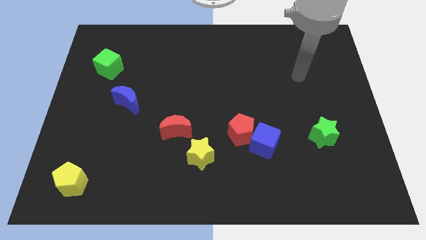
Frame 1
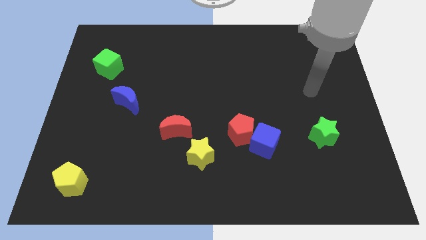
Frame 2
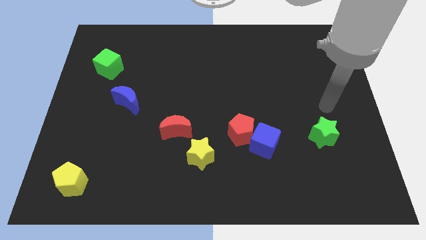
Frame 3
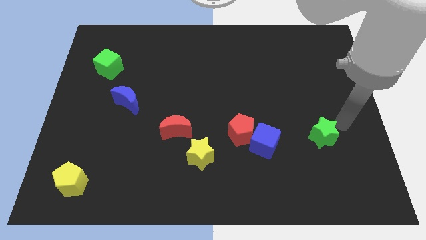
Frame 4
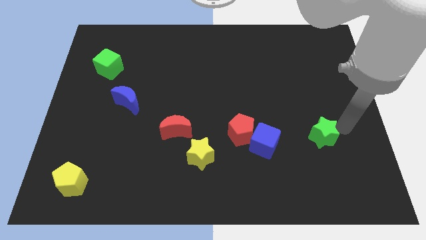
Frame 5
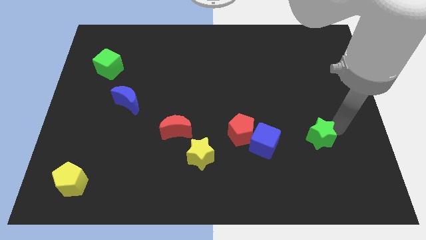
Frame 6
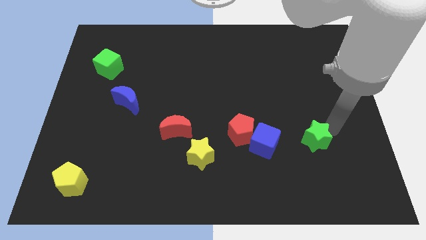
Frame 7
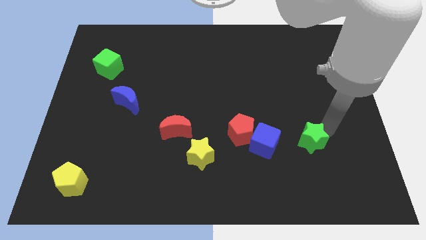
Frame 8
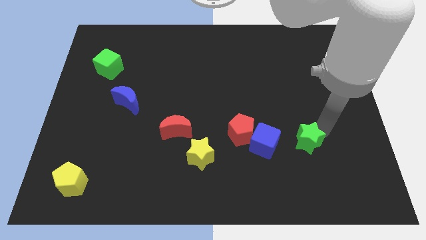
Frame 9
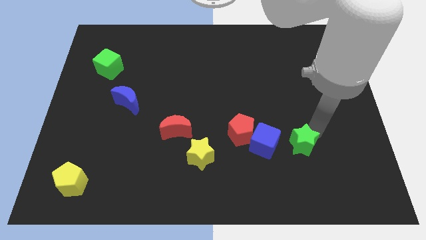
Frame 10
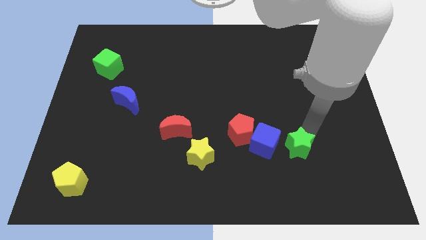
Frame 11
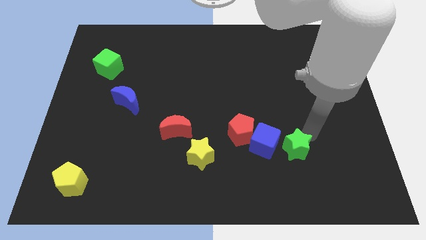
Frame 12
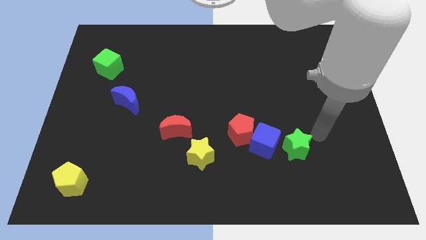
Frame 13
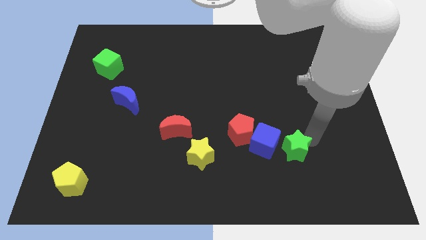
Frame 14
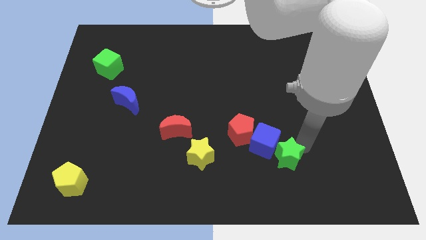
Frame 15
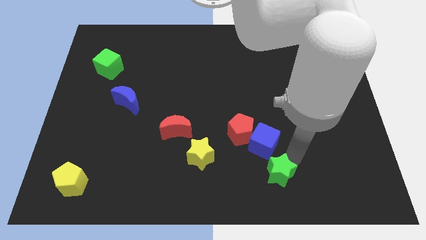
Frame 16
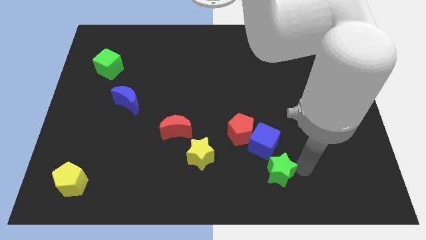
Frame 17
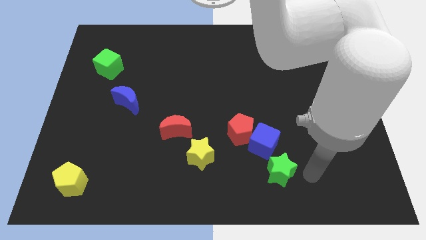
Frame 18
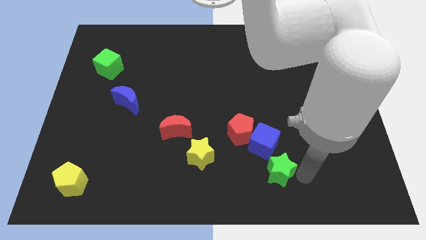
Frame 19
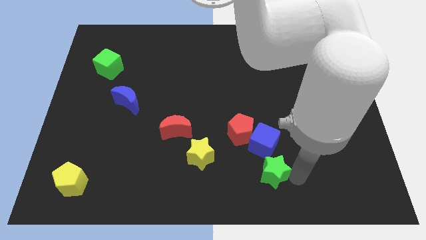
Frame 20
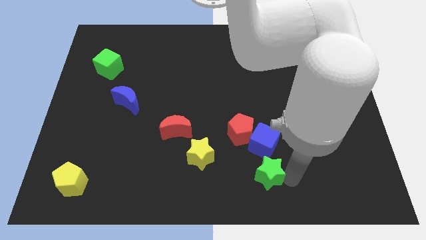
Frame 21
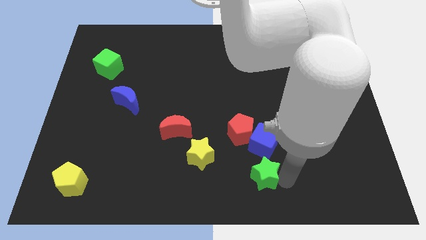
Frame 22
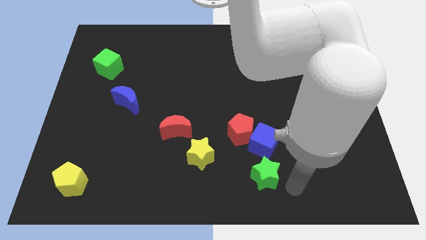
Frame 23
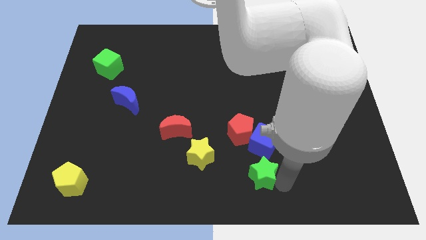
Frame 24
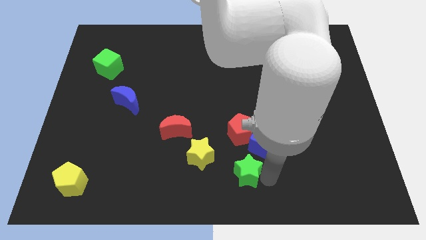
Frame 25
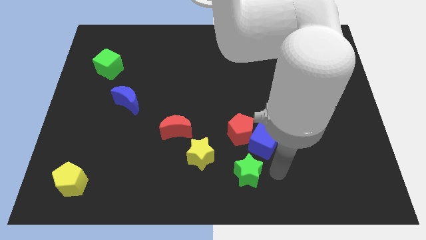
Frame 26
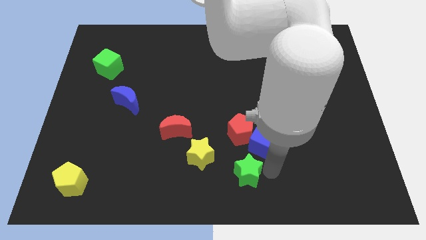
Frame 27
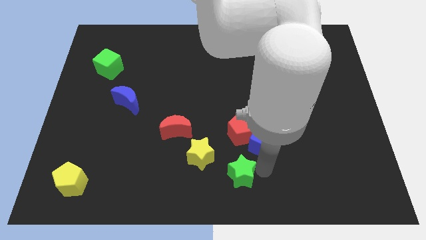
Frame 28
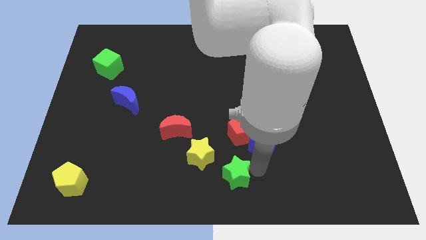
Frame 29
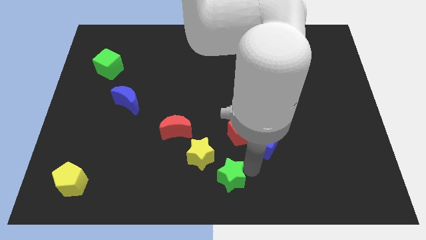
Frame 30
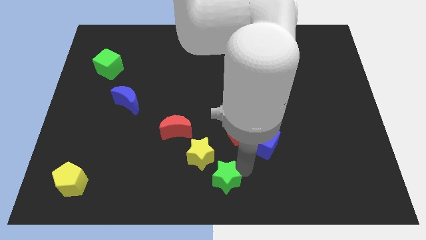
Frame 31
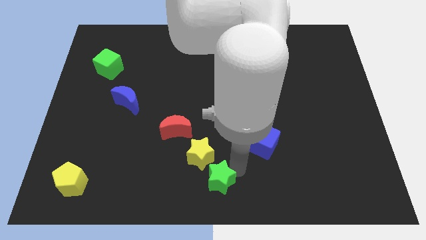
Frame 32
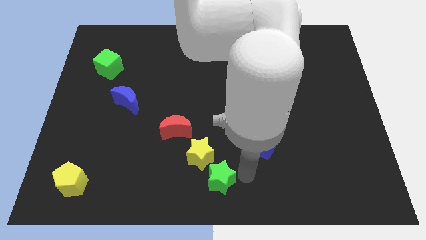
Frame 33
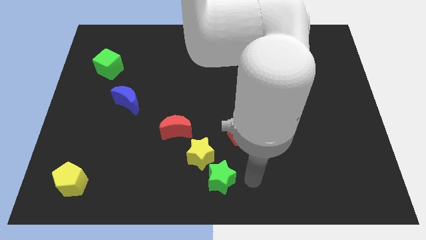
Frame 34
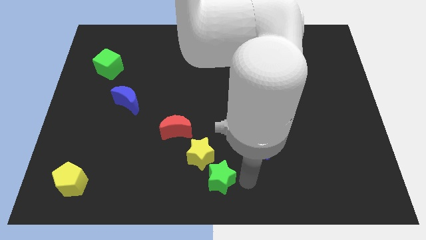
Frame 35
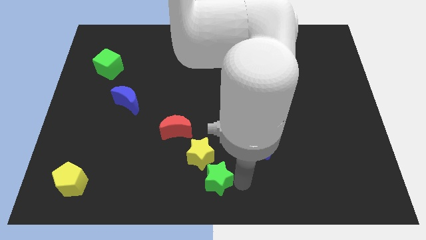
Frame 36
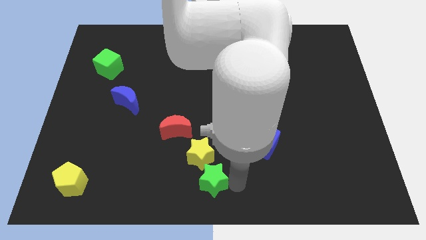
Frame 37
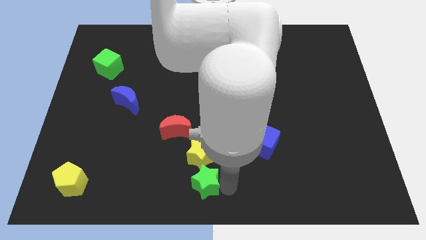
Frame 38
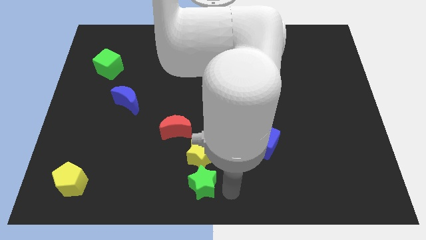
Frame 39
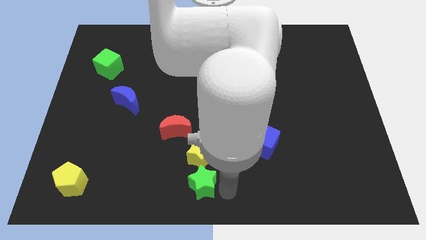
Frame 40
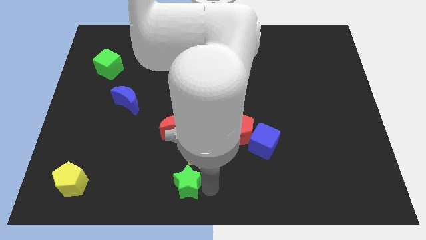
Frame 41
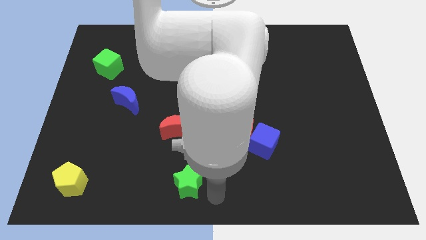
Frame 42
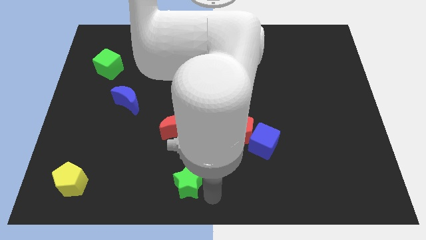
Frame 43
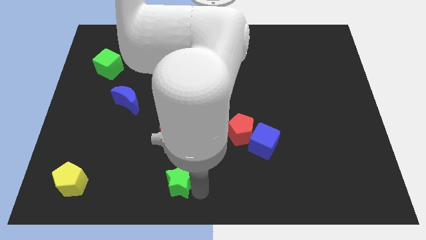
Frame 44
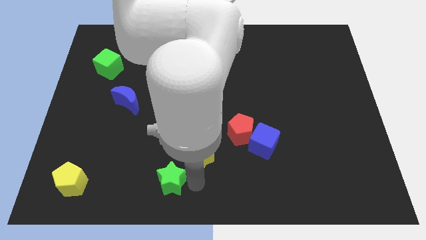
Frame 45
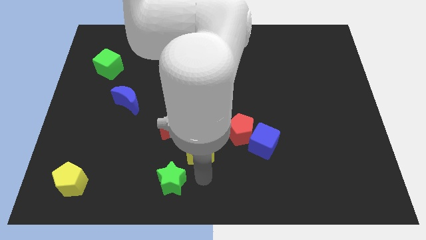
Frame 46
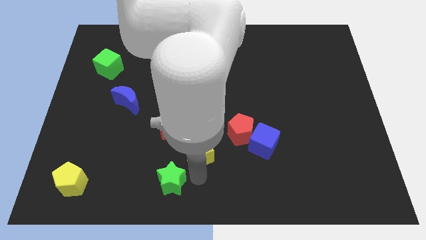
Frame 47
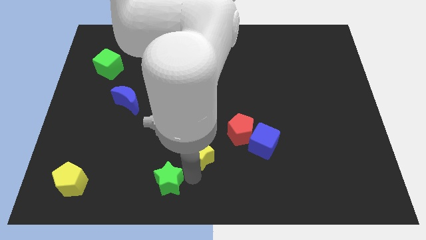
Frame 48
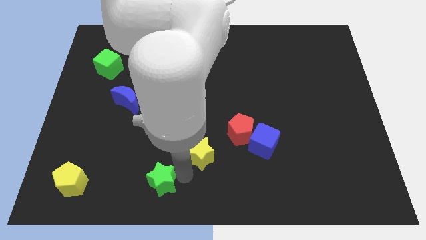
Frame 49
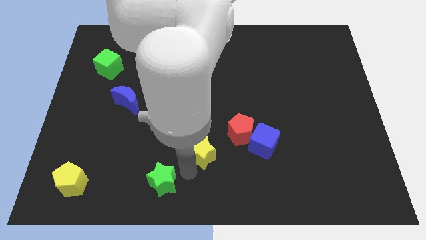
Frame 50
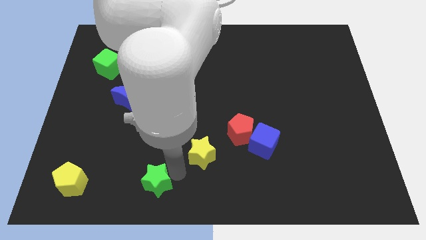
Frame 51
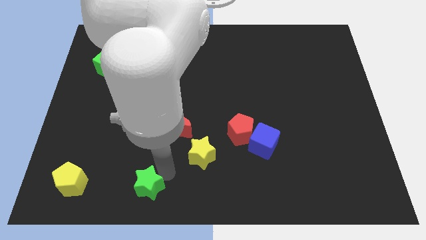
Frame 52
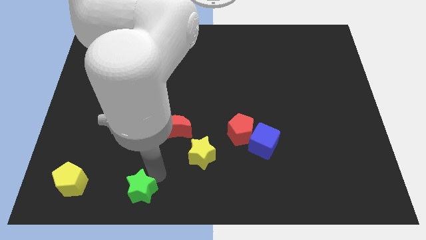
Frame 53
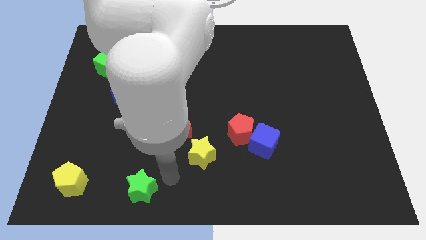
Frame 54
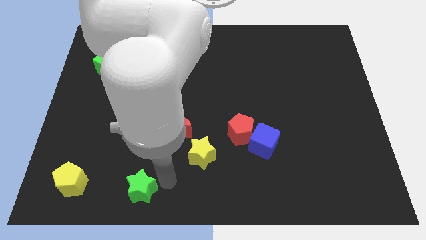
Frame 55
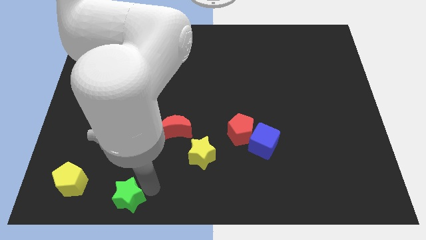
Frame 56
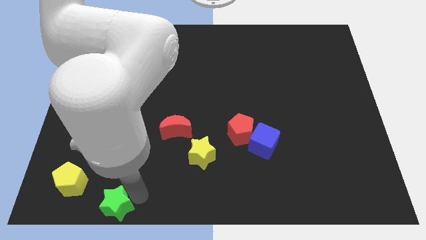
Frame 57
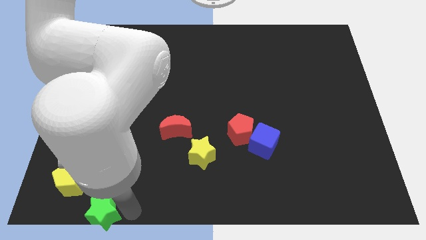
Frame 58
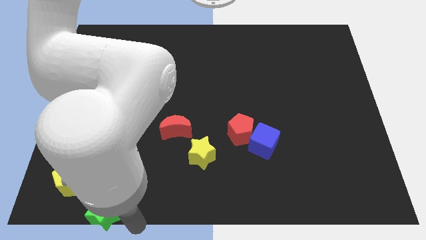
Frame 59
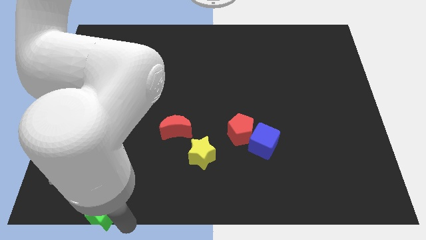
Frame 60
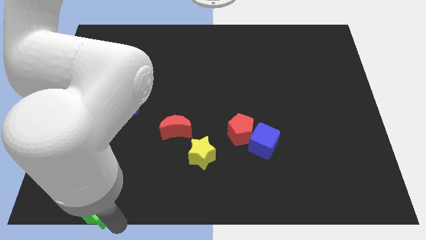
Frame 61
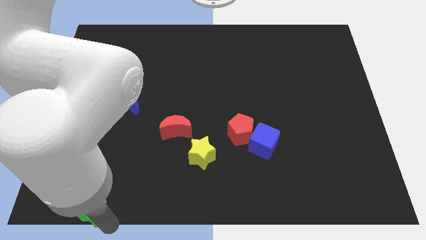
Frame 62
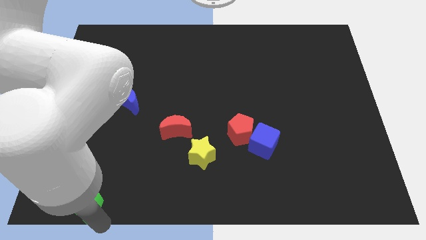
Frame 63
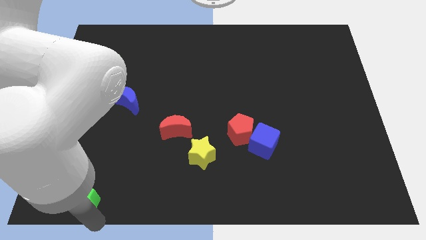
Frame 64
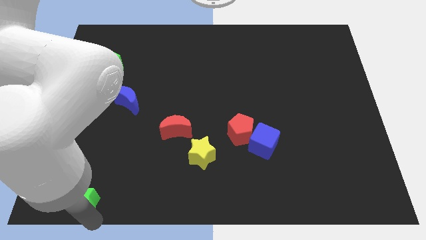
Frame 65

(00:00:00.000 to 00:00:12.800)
slide the green star to the lower left corner

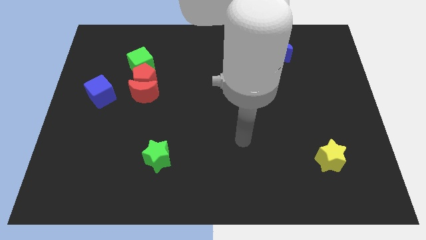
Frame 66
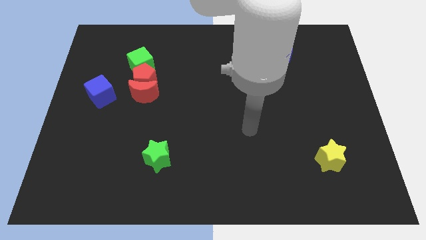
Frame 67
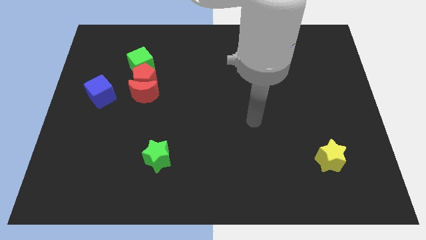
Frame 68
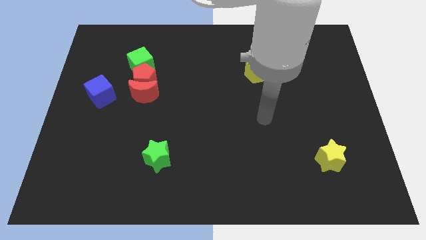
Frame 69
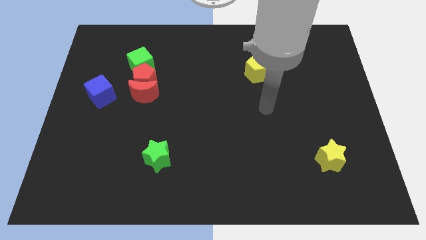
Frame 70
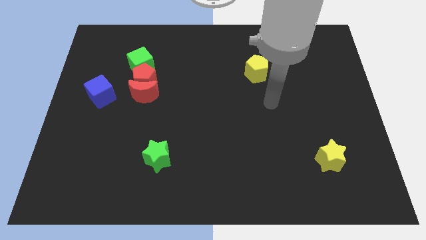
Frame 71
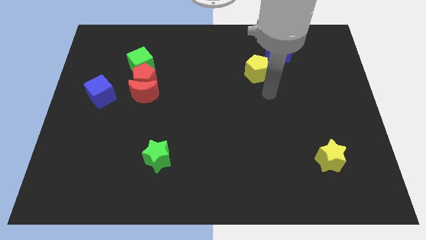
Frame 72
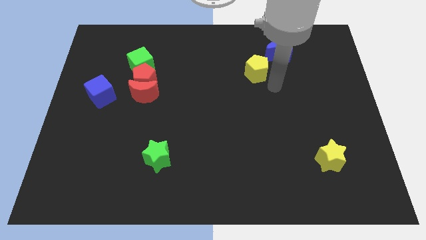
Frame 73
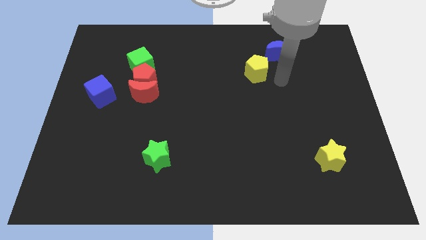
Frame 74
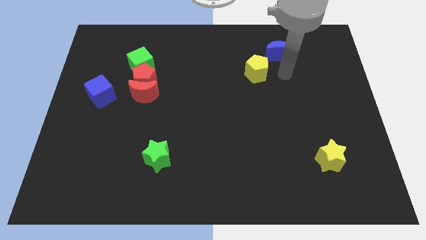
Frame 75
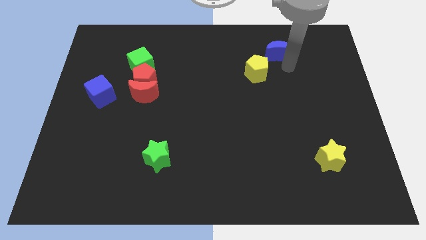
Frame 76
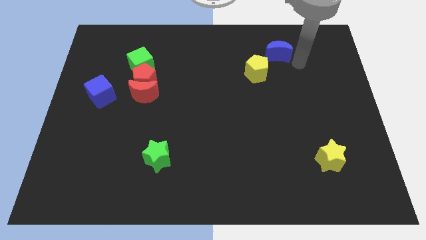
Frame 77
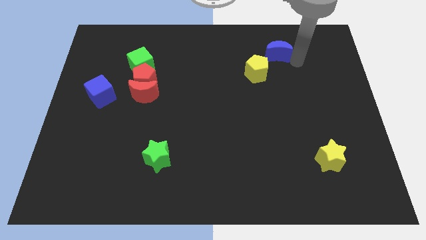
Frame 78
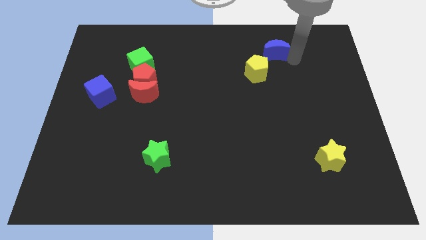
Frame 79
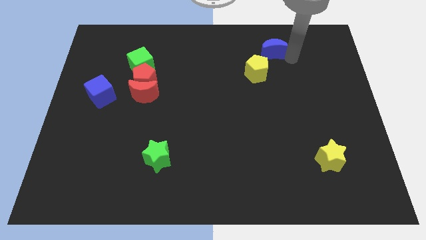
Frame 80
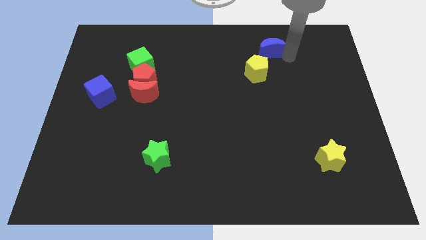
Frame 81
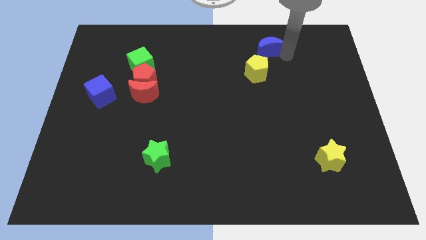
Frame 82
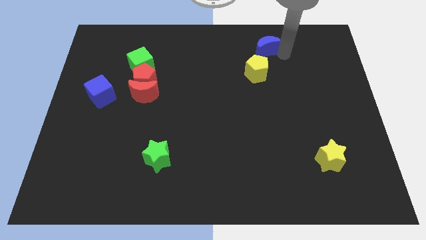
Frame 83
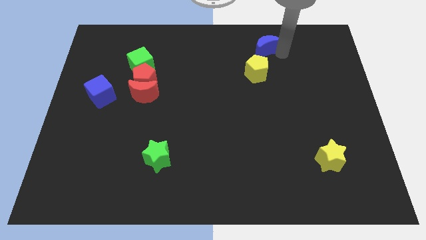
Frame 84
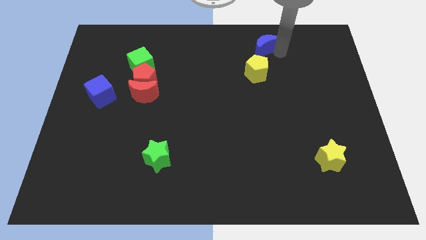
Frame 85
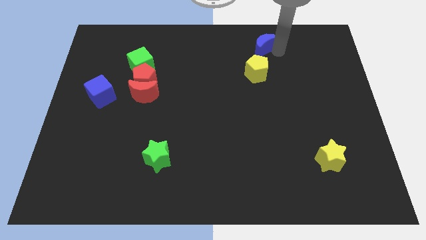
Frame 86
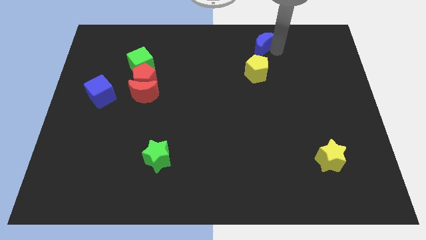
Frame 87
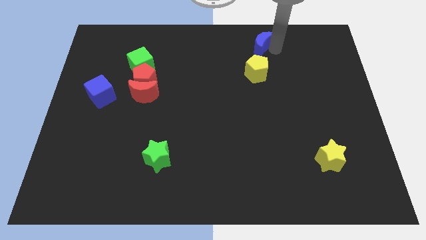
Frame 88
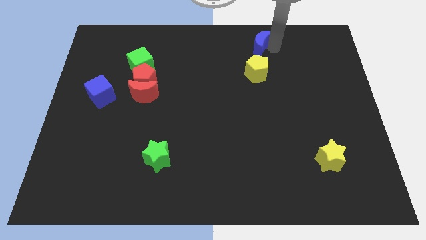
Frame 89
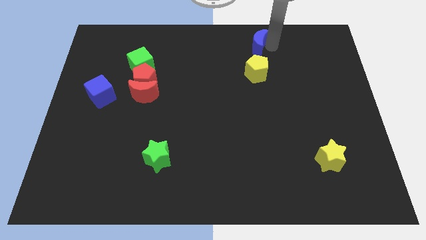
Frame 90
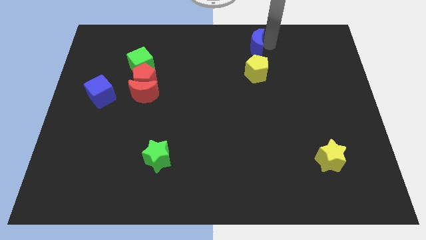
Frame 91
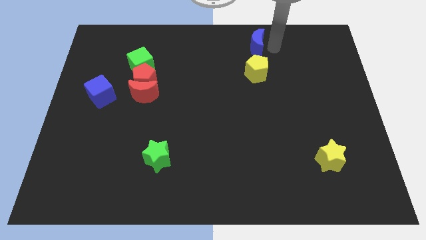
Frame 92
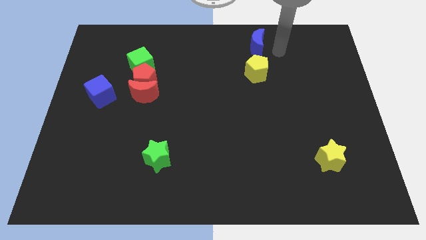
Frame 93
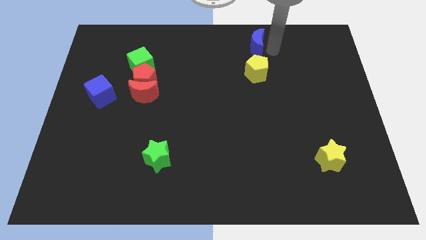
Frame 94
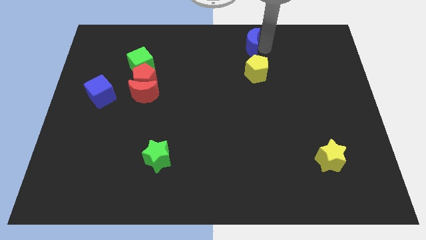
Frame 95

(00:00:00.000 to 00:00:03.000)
slide the blue moon to the top
